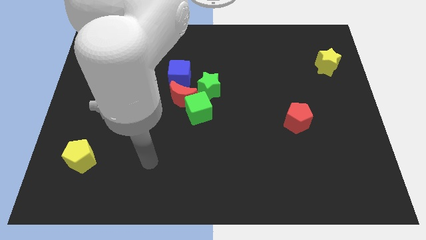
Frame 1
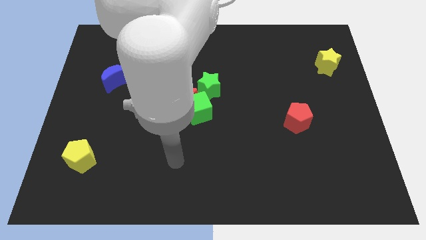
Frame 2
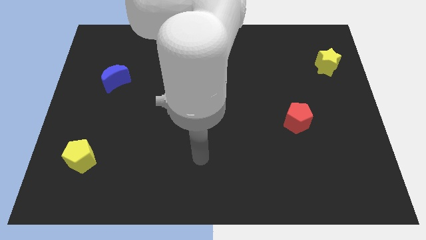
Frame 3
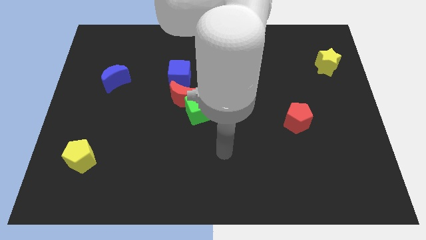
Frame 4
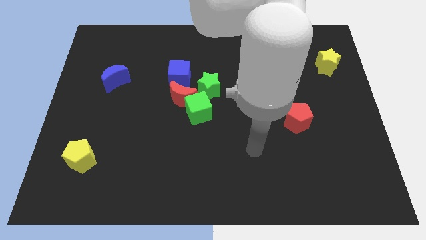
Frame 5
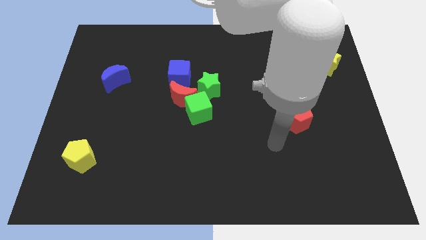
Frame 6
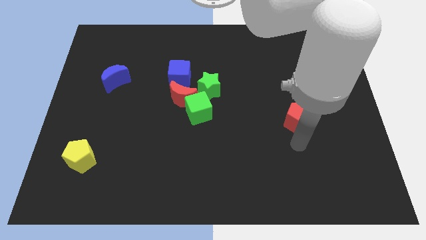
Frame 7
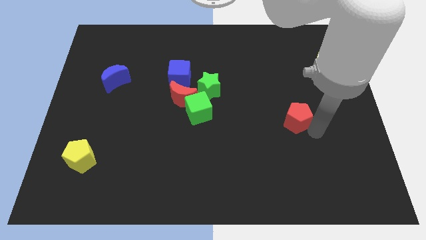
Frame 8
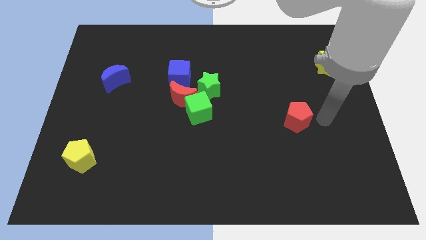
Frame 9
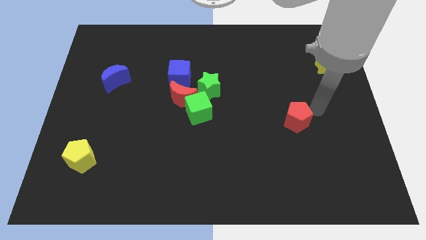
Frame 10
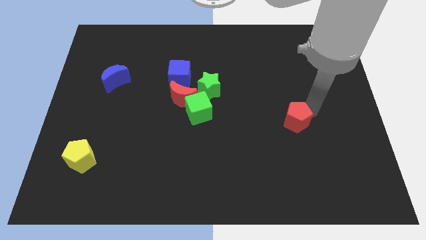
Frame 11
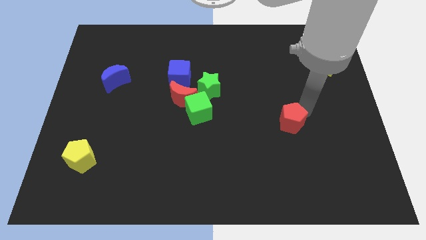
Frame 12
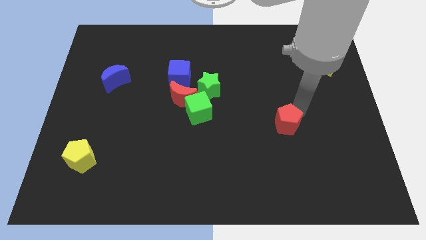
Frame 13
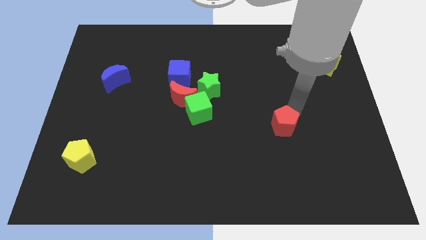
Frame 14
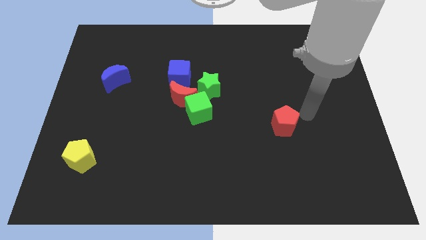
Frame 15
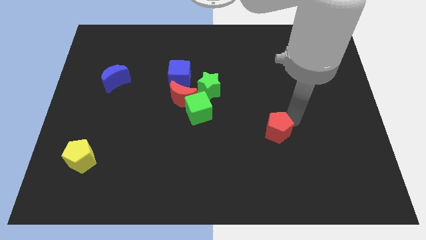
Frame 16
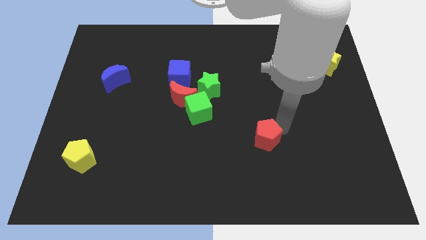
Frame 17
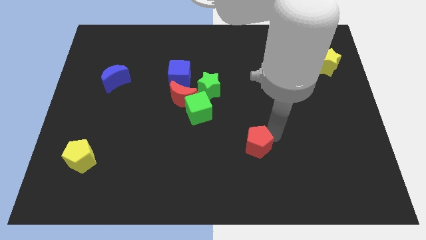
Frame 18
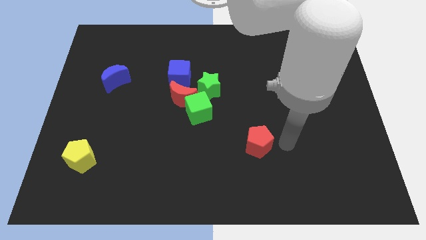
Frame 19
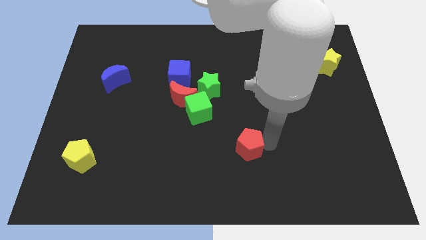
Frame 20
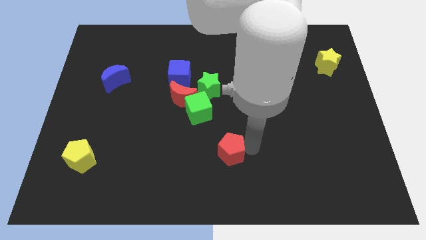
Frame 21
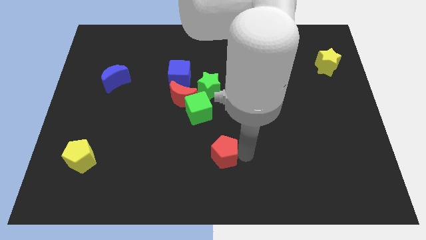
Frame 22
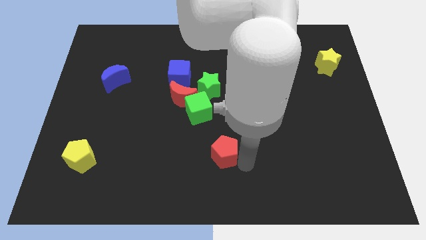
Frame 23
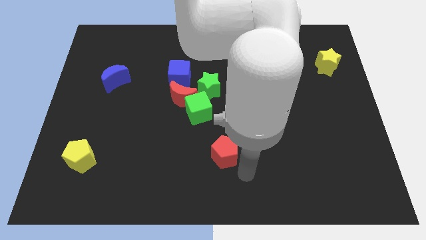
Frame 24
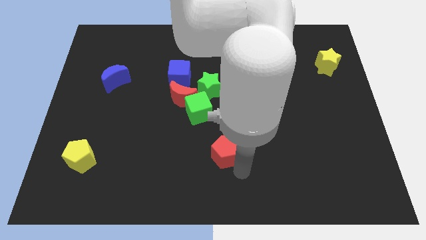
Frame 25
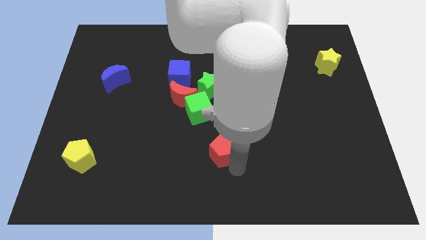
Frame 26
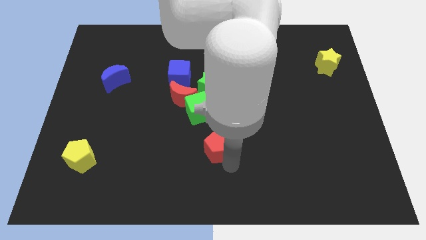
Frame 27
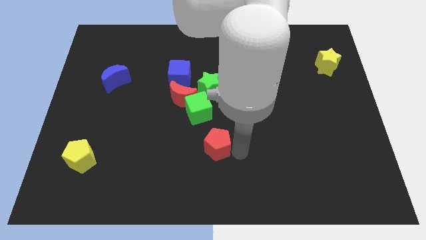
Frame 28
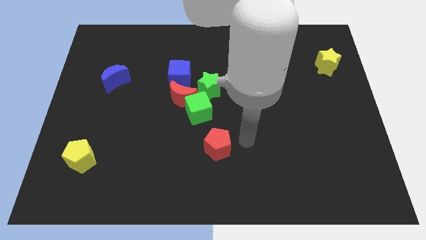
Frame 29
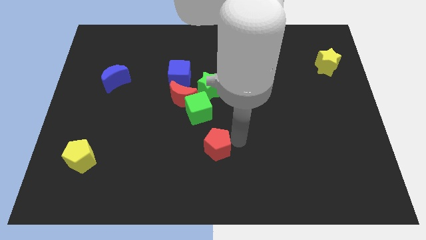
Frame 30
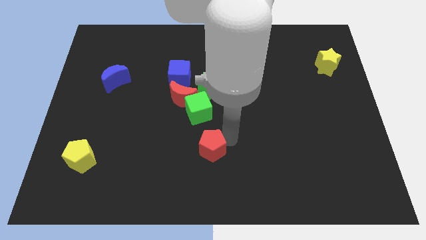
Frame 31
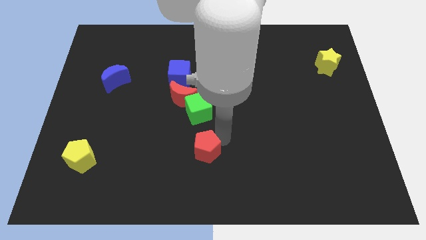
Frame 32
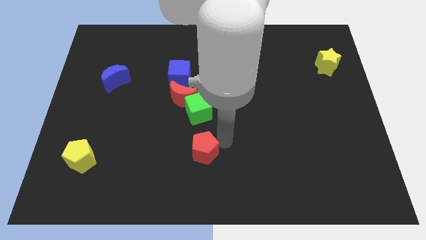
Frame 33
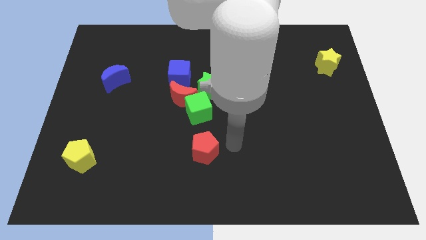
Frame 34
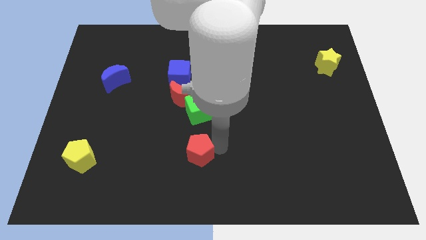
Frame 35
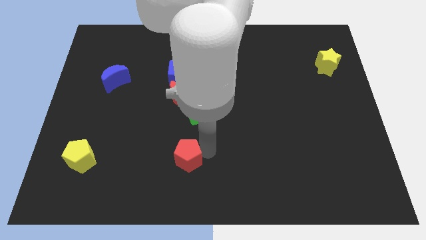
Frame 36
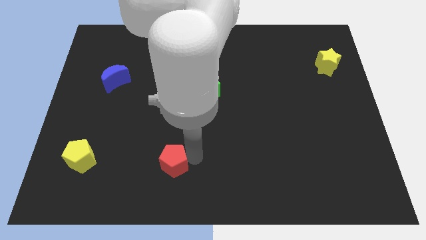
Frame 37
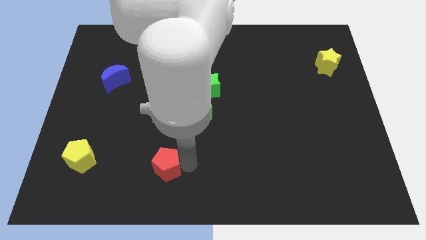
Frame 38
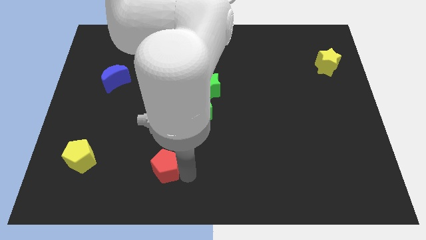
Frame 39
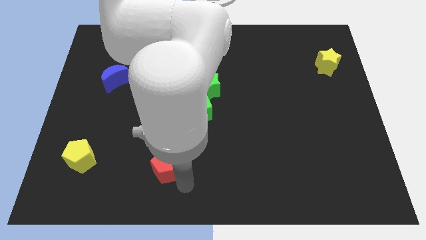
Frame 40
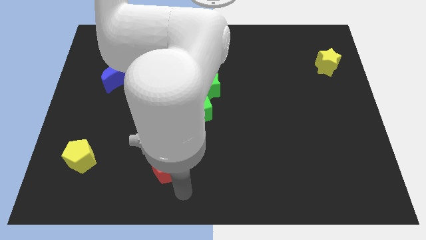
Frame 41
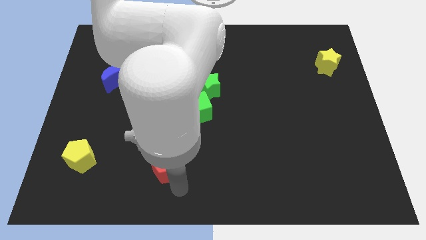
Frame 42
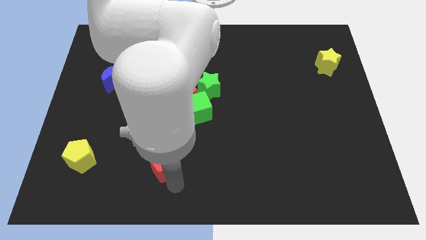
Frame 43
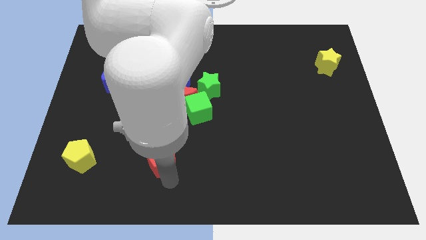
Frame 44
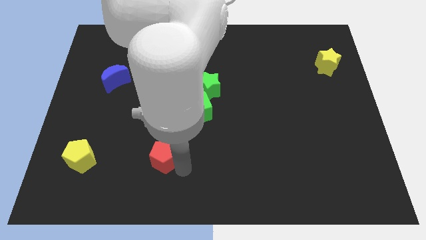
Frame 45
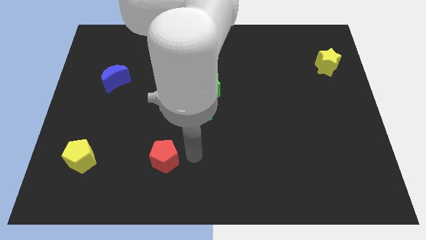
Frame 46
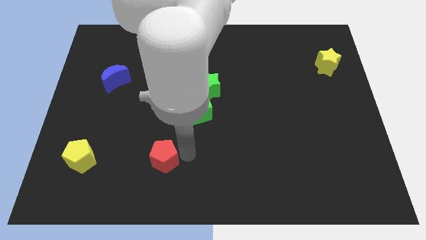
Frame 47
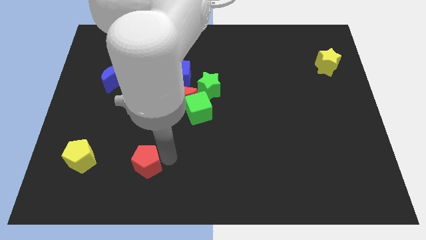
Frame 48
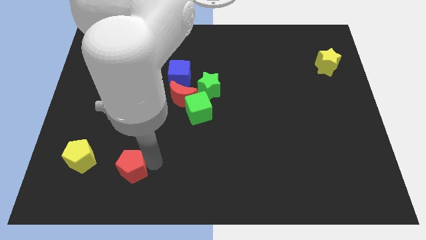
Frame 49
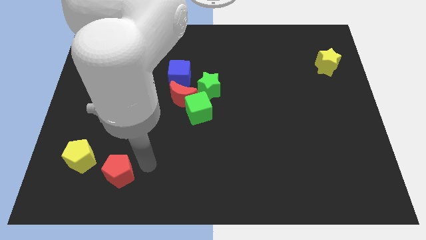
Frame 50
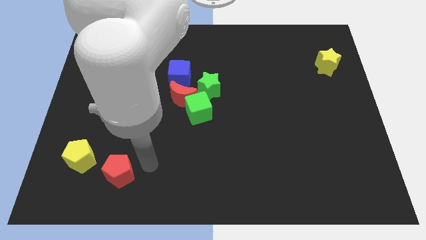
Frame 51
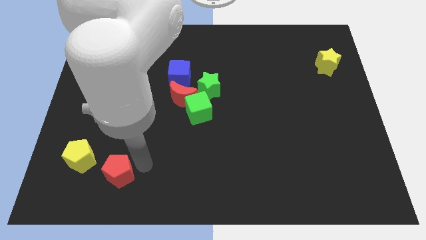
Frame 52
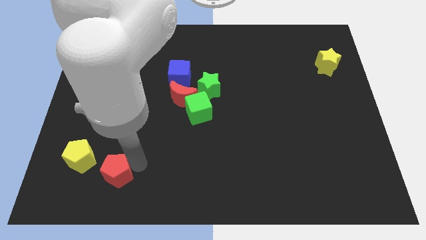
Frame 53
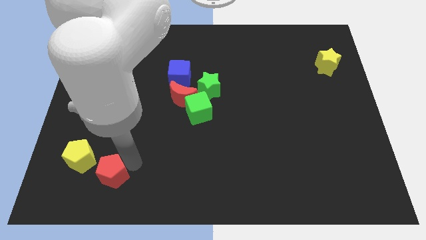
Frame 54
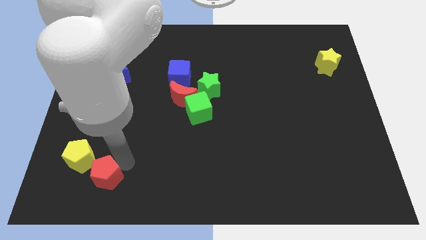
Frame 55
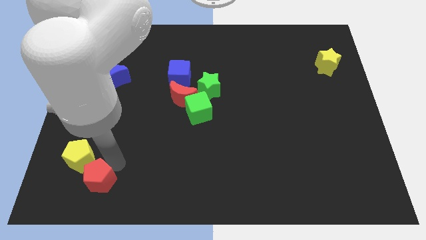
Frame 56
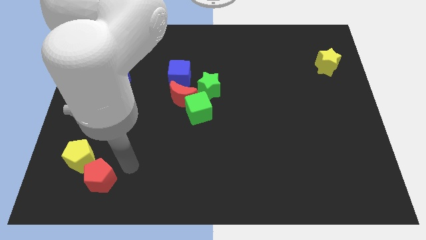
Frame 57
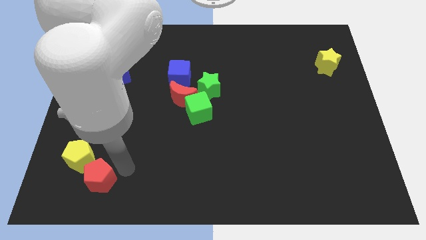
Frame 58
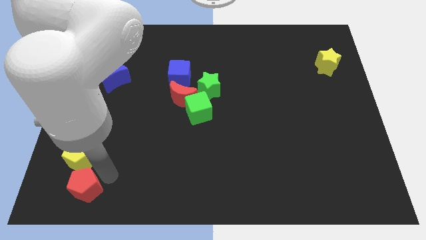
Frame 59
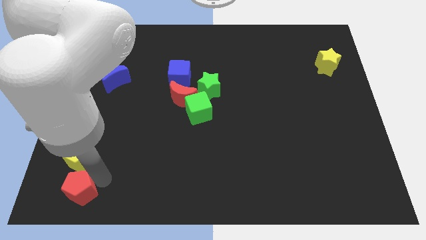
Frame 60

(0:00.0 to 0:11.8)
move the red pentagon to the bottom left
